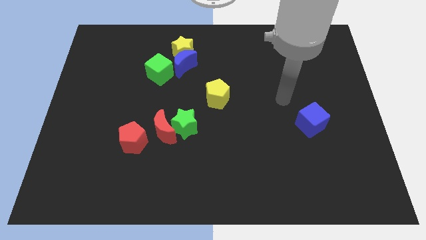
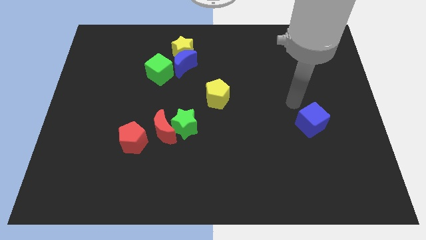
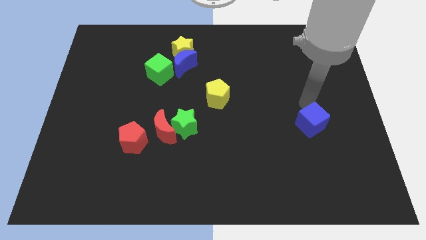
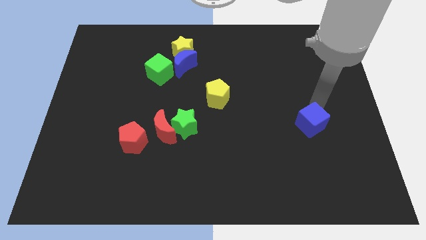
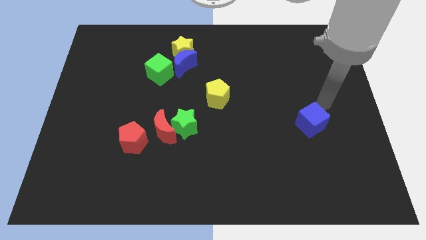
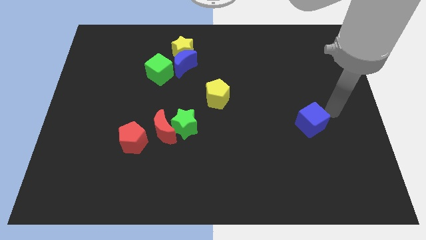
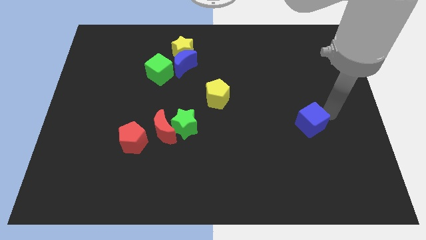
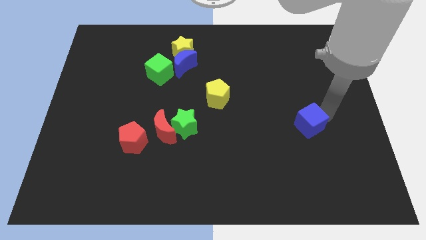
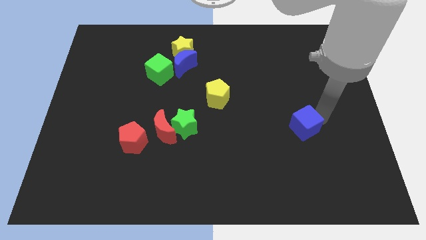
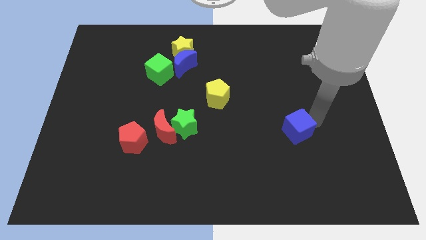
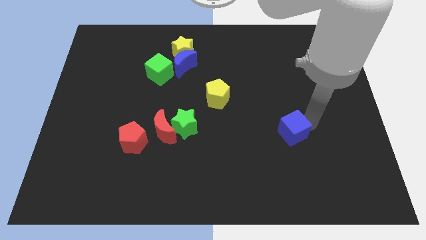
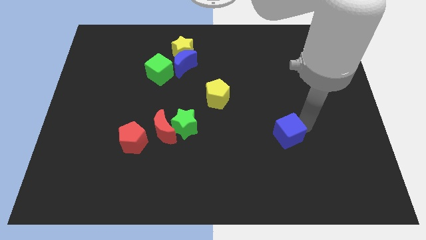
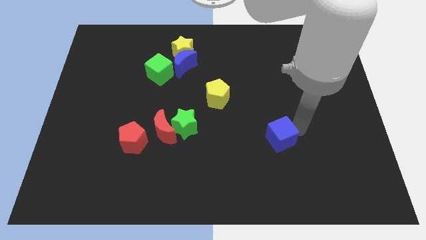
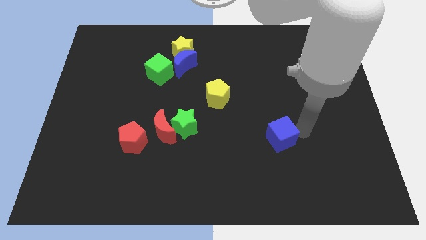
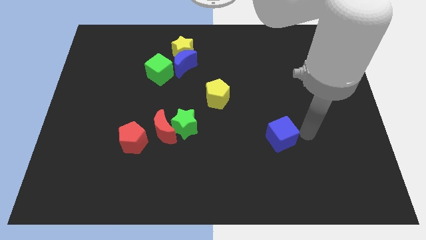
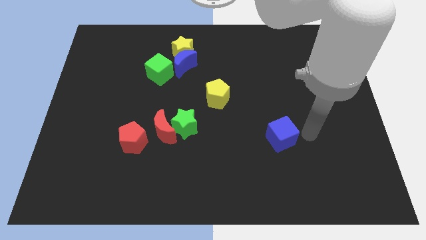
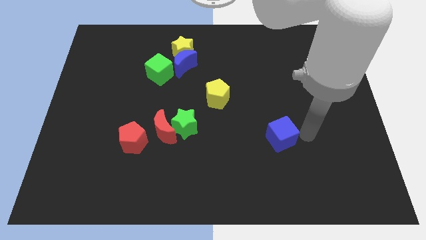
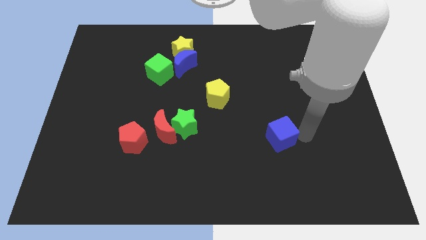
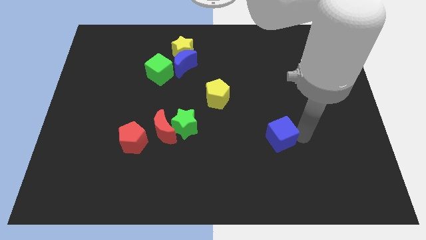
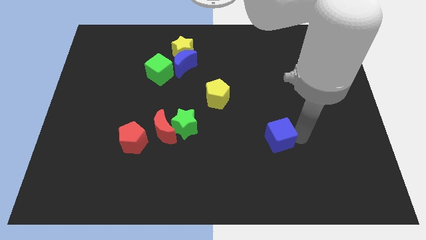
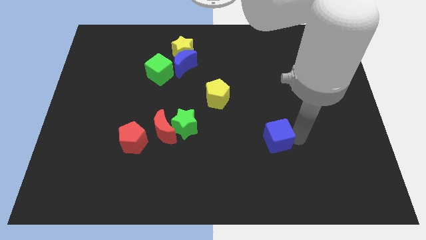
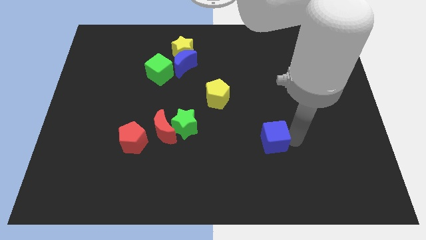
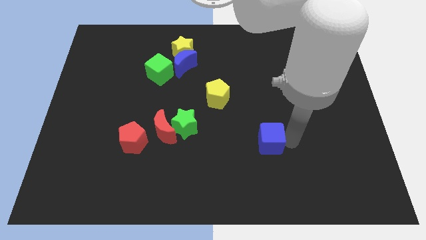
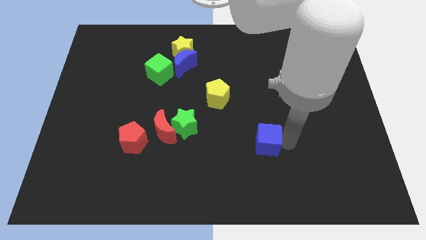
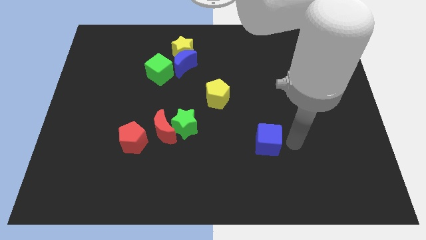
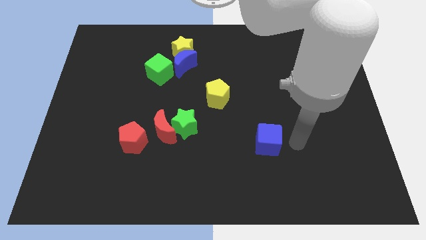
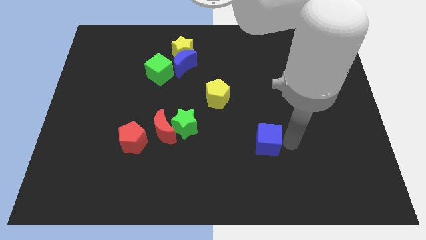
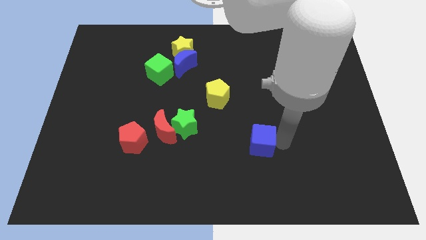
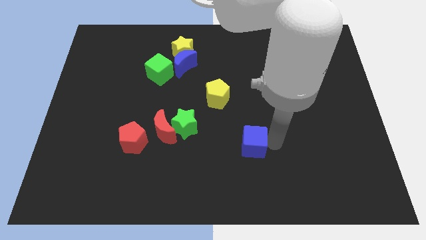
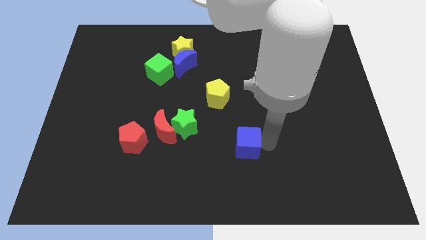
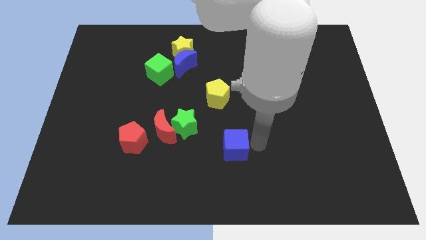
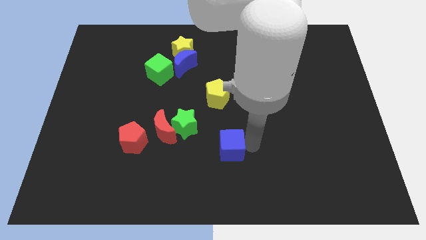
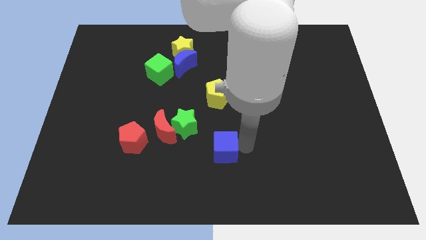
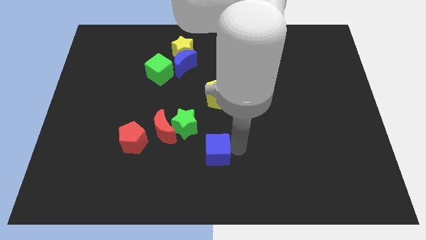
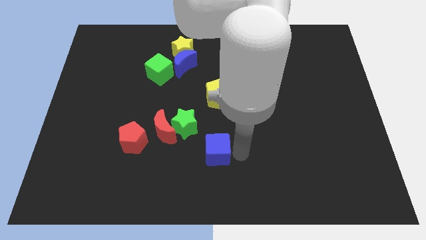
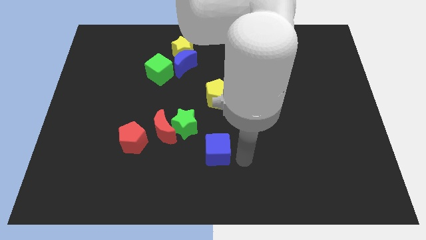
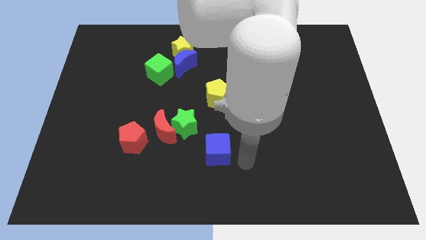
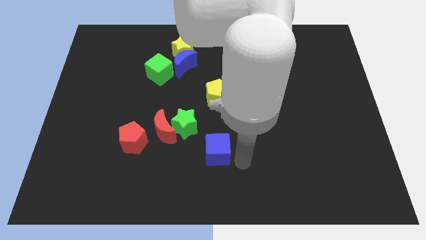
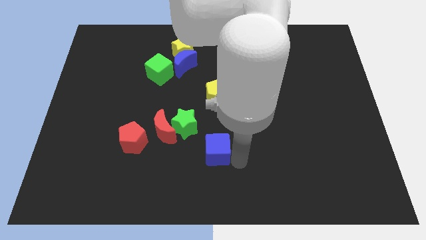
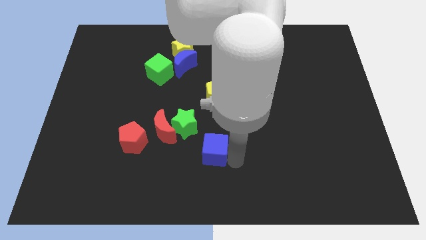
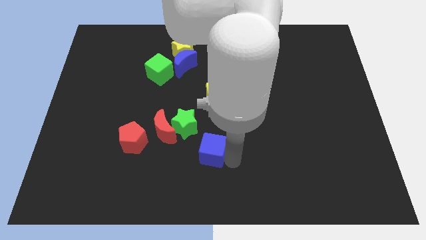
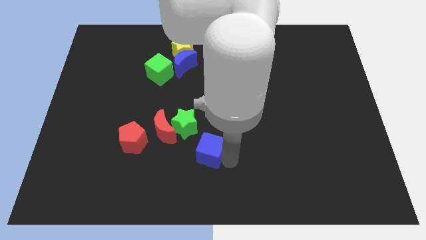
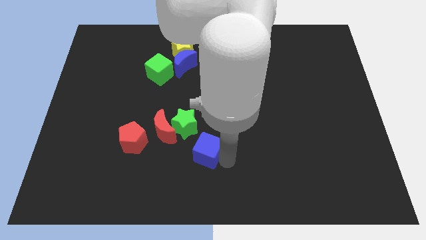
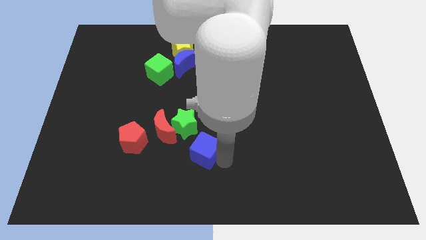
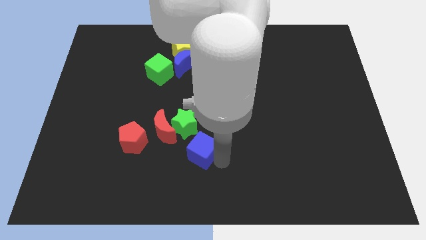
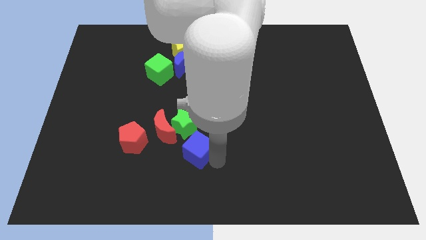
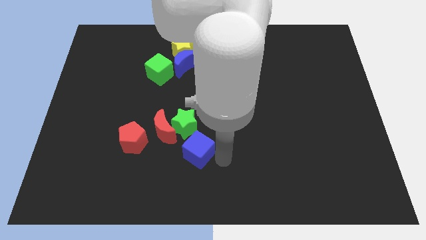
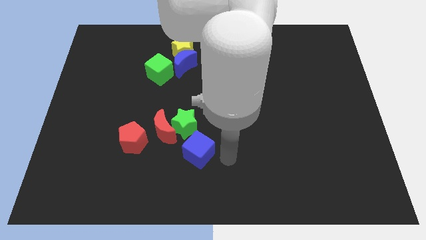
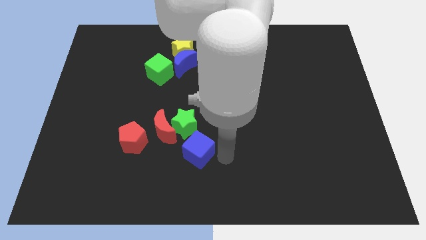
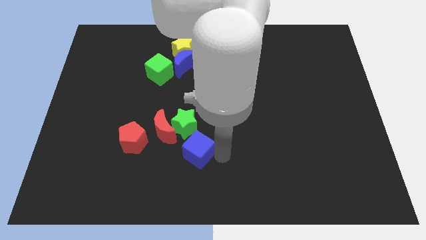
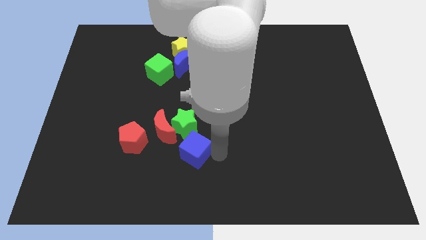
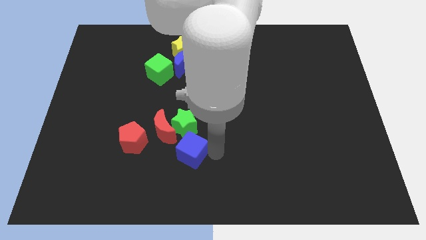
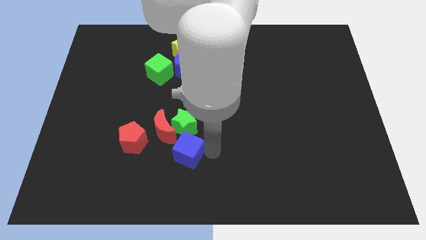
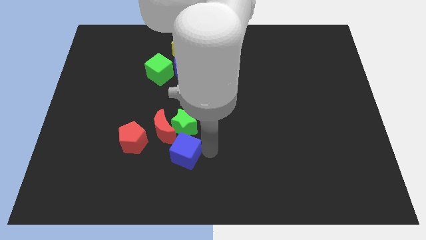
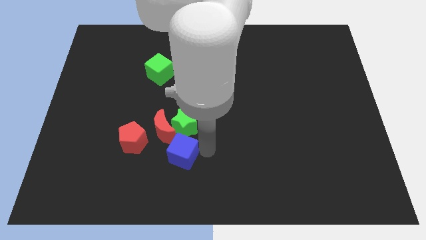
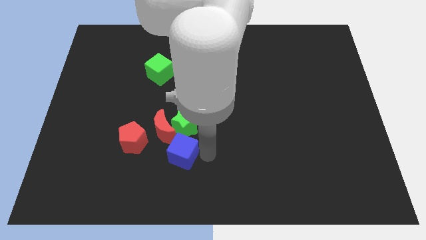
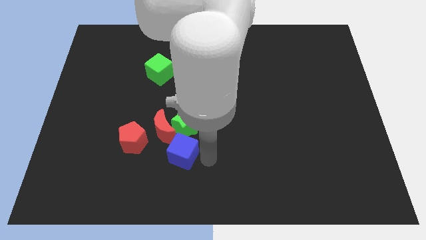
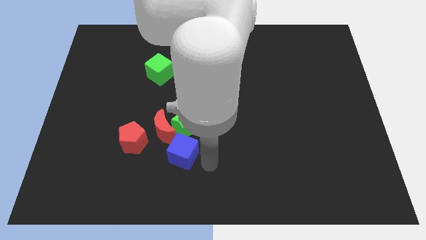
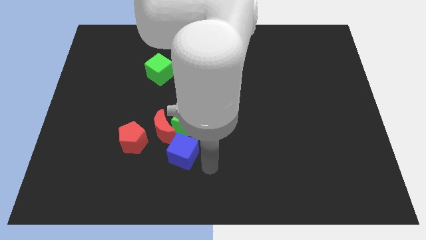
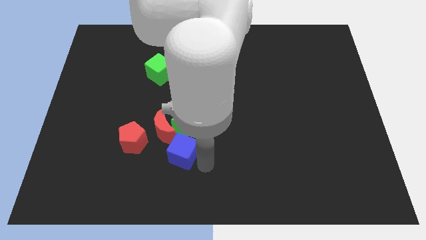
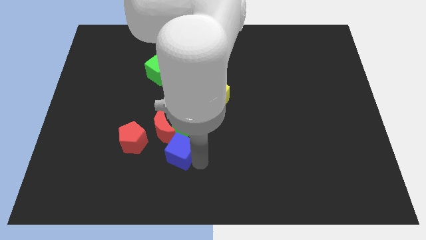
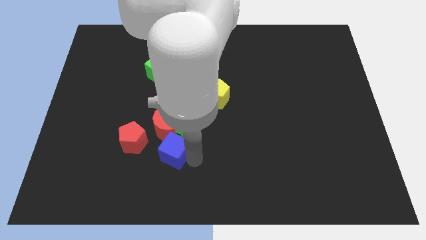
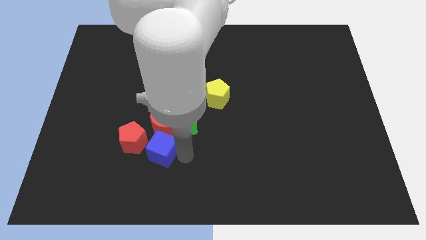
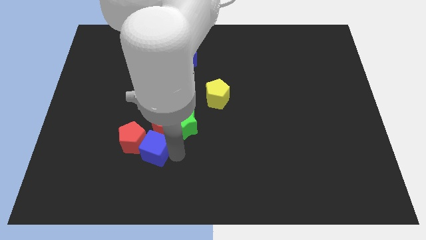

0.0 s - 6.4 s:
move the blue cube next to the red pentagon

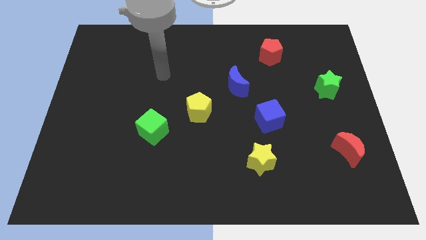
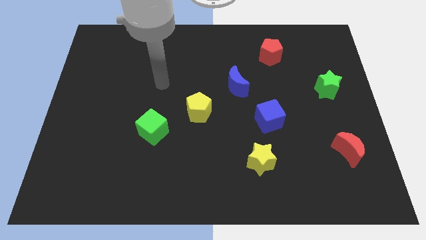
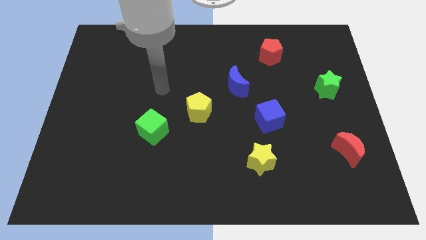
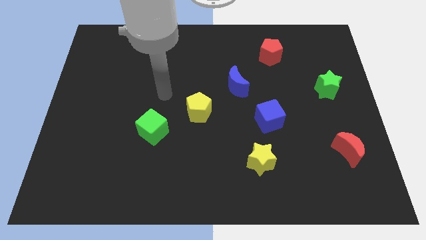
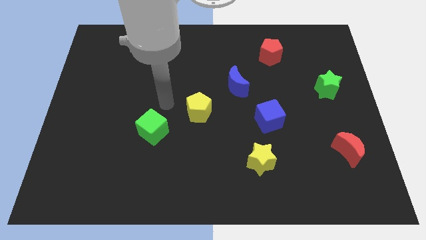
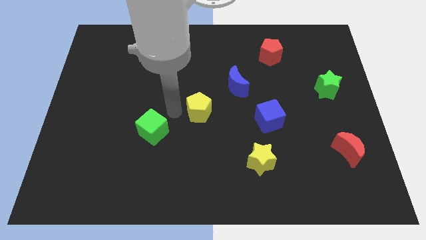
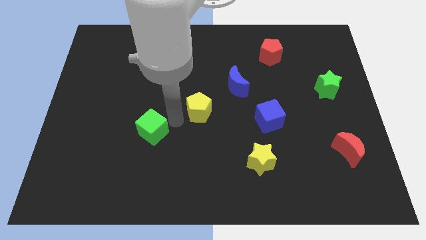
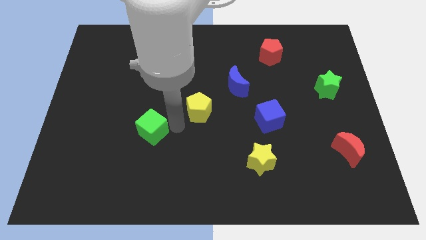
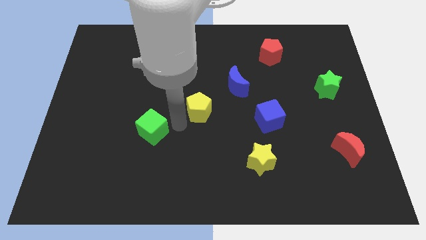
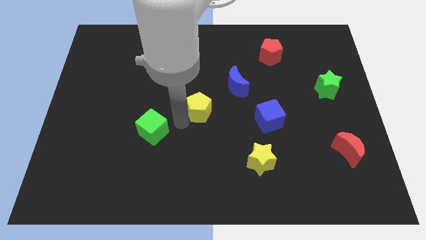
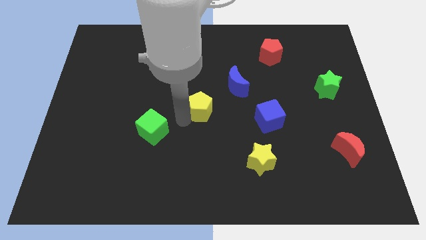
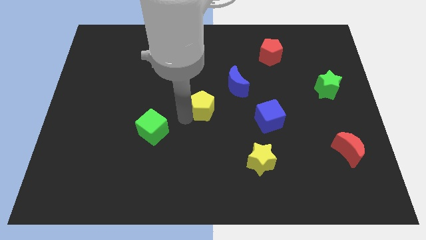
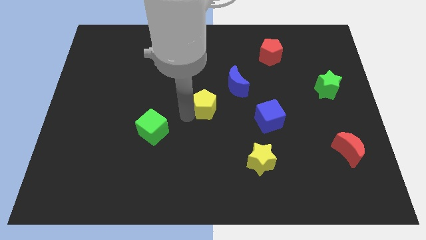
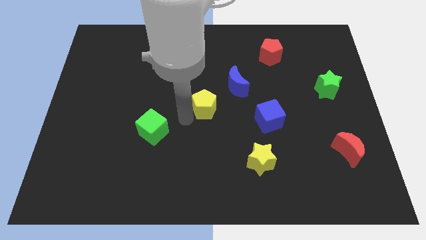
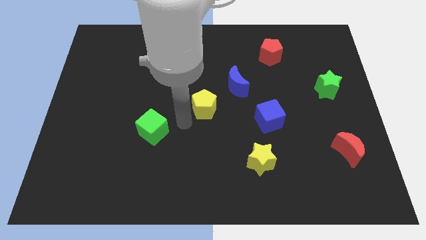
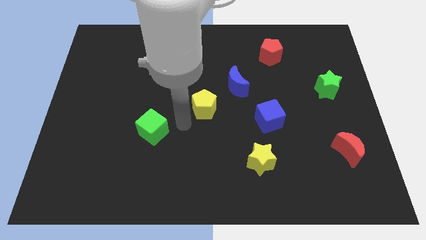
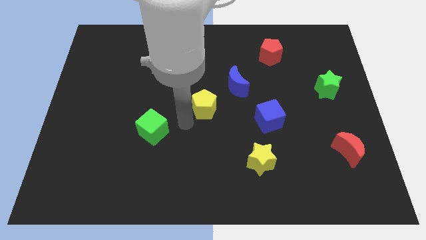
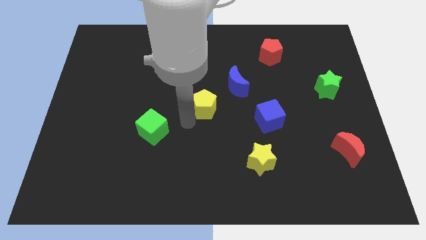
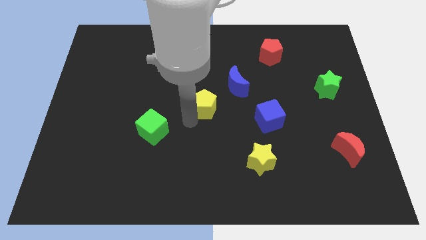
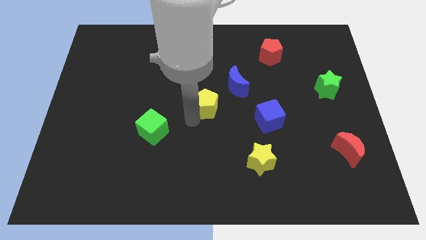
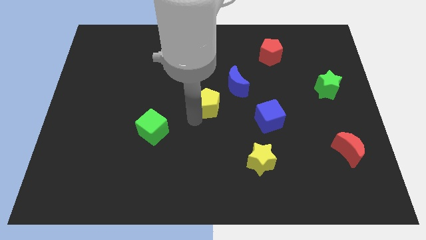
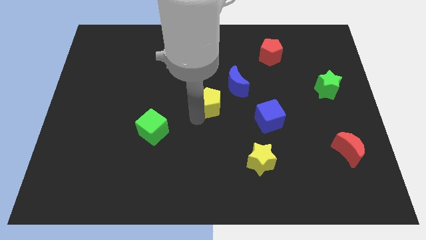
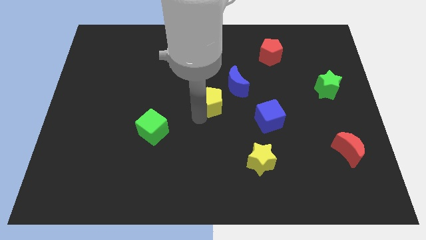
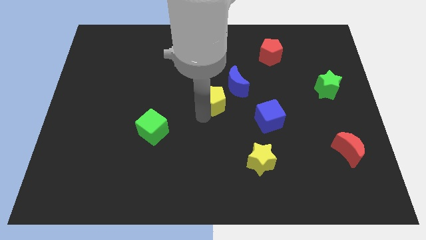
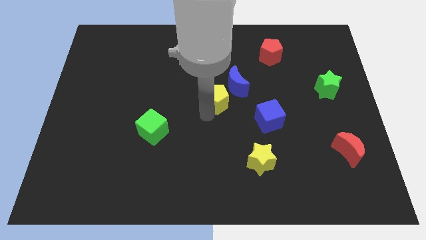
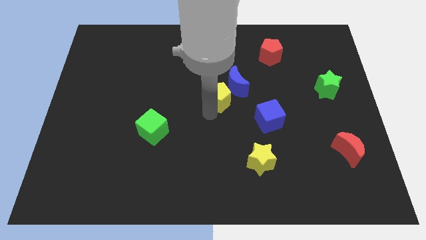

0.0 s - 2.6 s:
slide the yellow pentagon close to the blue moon
